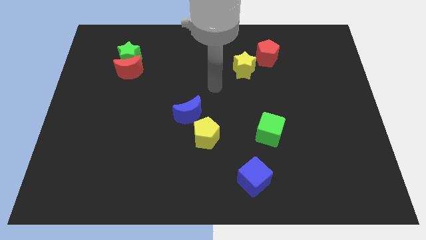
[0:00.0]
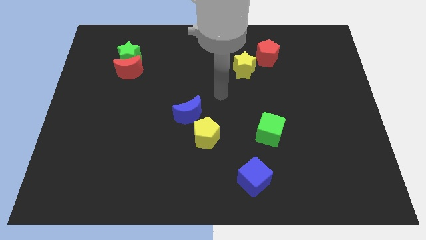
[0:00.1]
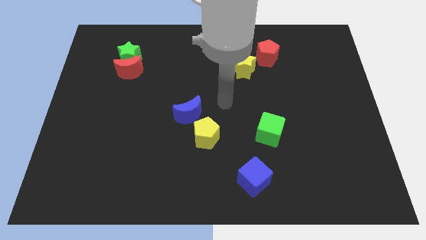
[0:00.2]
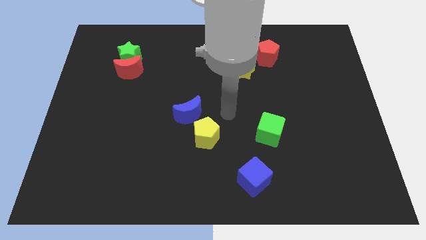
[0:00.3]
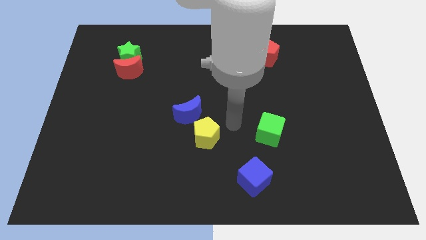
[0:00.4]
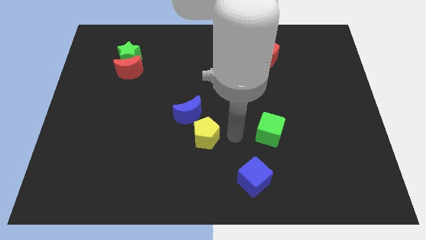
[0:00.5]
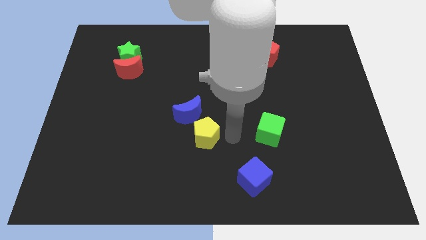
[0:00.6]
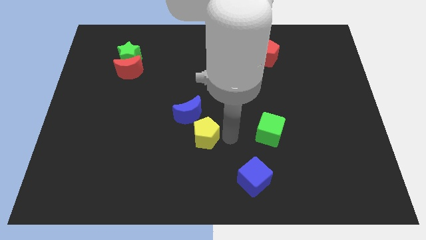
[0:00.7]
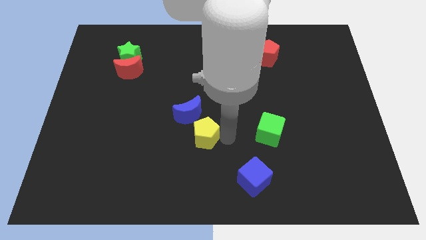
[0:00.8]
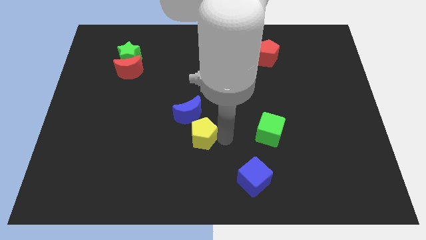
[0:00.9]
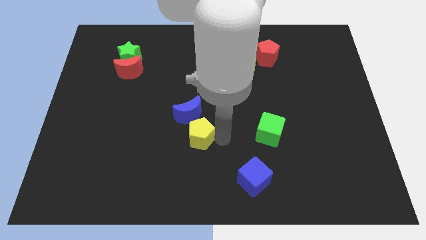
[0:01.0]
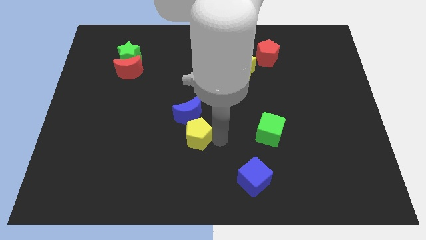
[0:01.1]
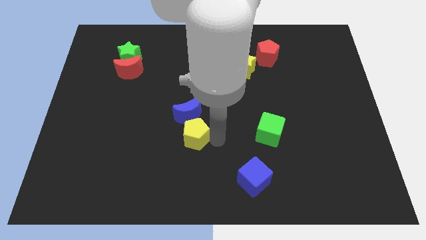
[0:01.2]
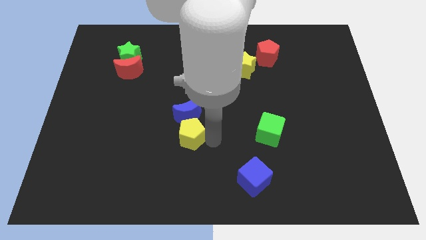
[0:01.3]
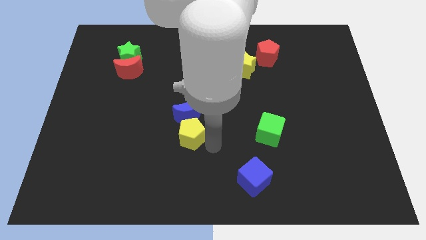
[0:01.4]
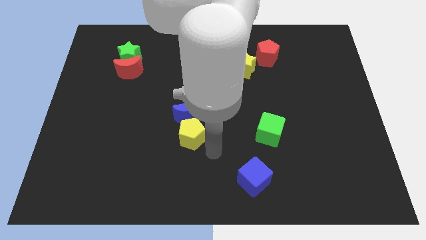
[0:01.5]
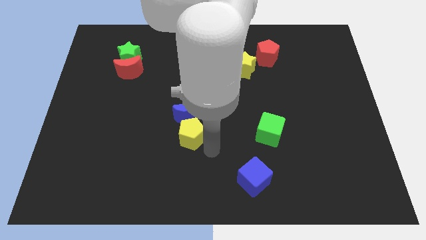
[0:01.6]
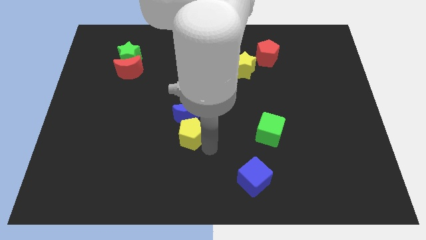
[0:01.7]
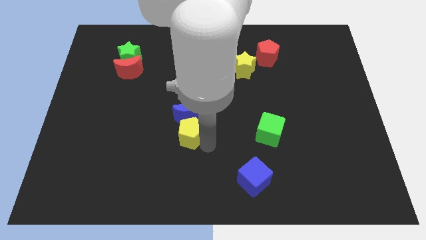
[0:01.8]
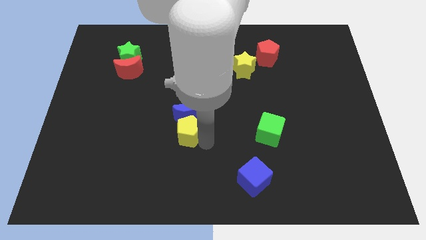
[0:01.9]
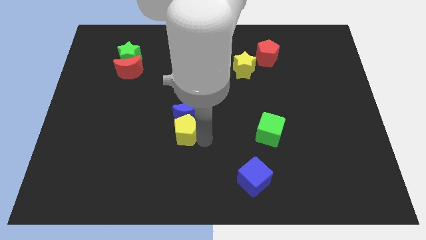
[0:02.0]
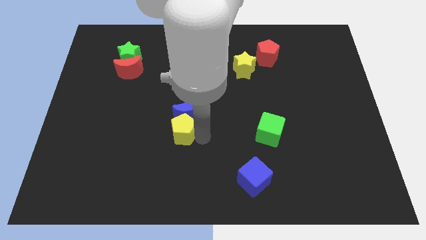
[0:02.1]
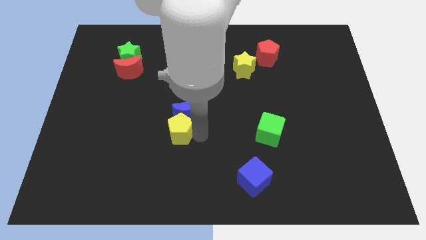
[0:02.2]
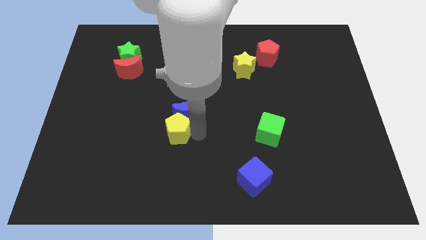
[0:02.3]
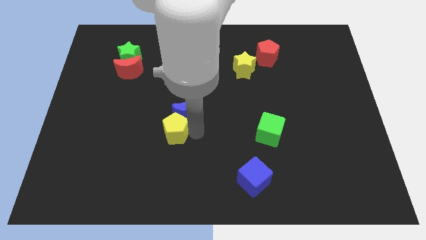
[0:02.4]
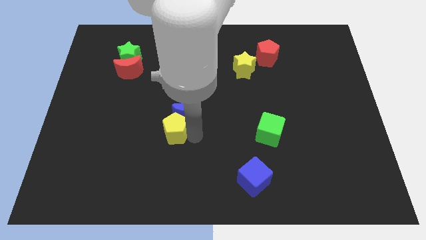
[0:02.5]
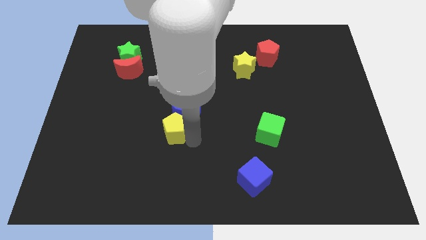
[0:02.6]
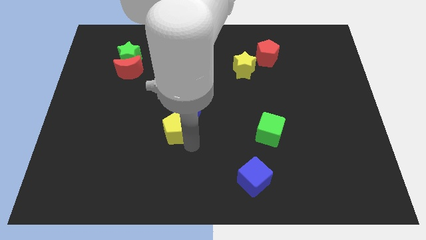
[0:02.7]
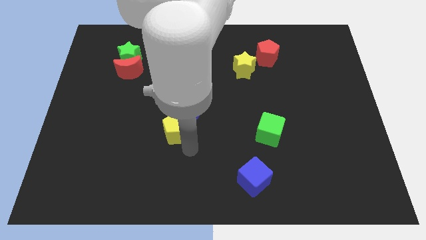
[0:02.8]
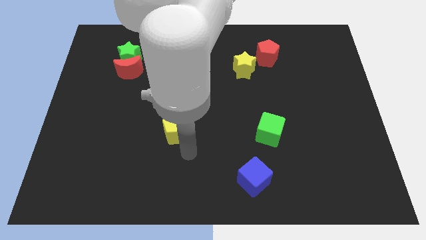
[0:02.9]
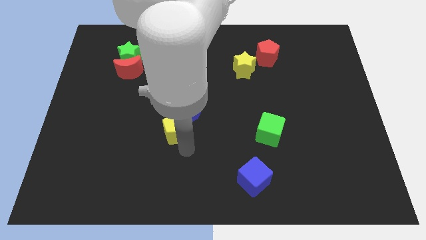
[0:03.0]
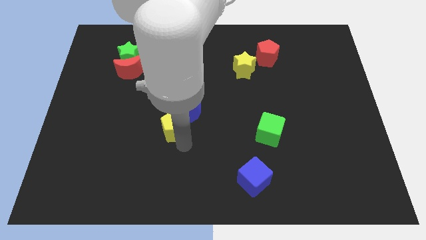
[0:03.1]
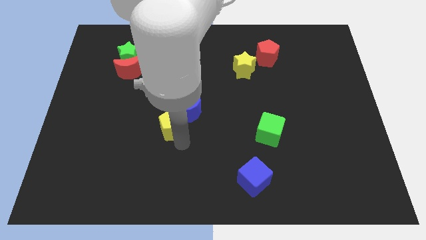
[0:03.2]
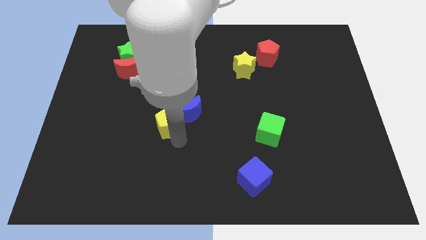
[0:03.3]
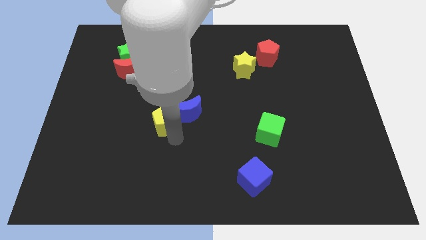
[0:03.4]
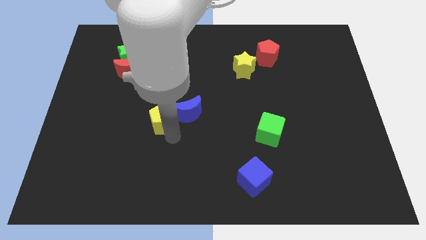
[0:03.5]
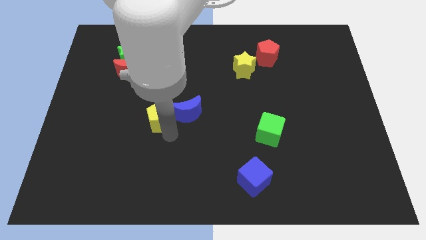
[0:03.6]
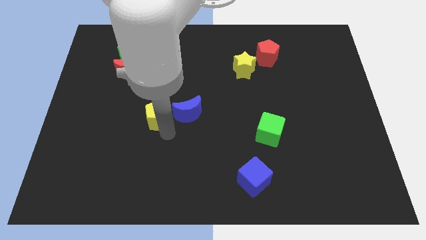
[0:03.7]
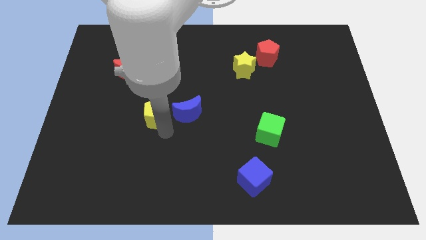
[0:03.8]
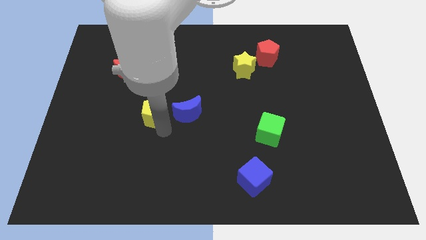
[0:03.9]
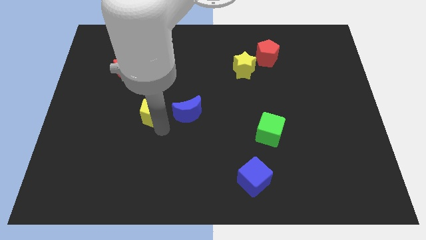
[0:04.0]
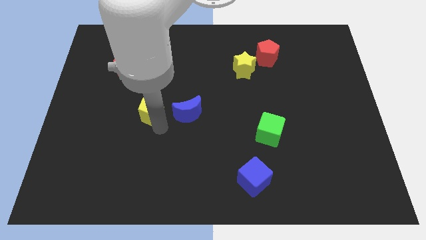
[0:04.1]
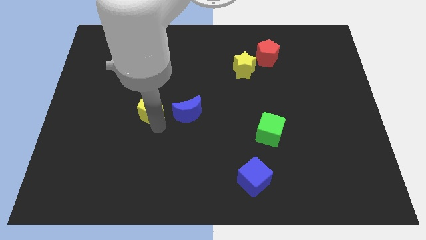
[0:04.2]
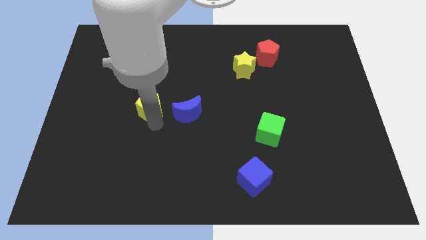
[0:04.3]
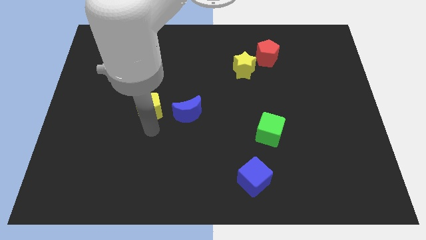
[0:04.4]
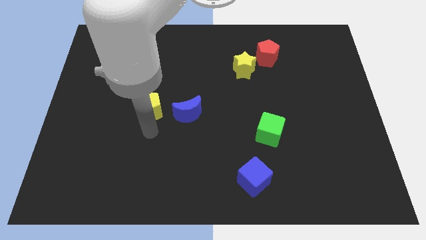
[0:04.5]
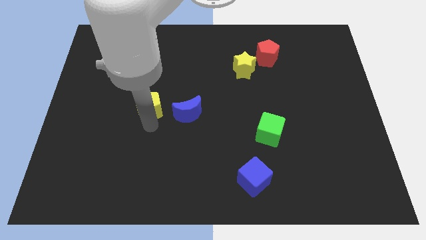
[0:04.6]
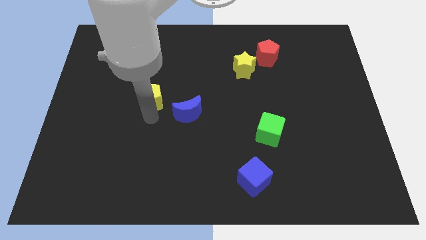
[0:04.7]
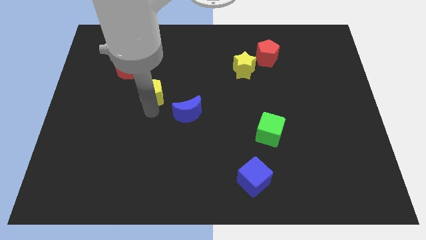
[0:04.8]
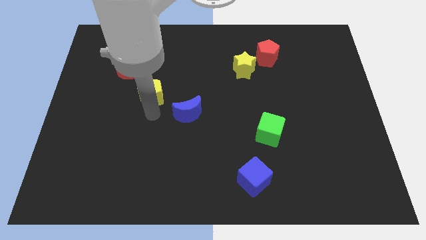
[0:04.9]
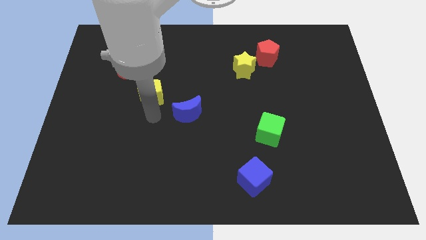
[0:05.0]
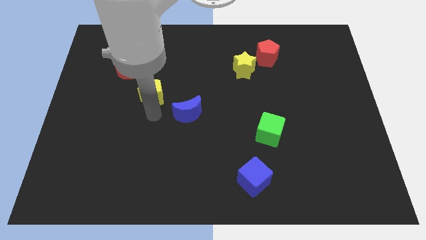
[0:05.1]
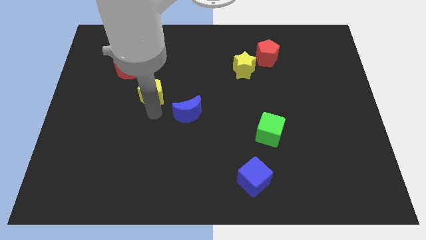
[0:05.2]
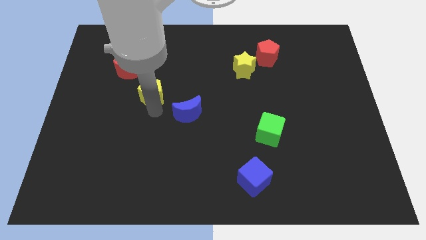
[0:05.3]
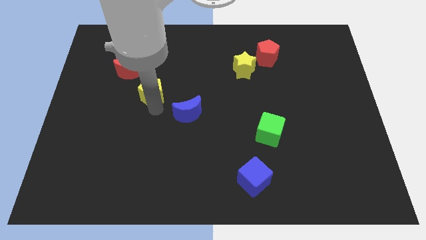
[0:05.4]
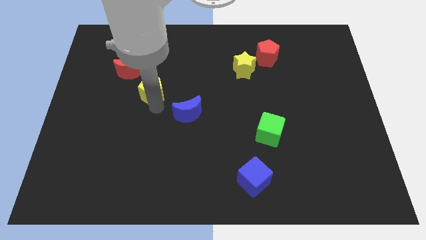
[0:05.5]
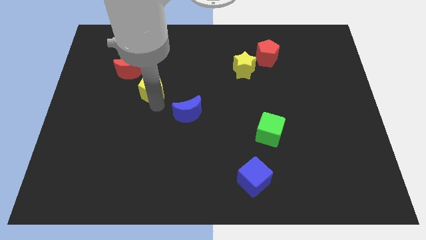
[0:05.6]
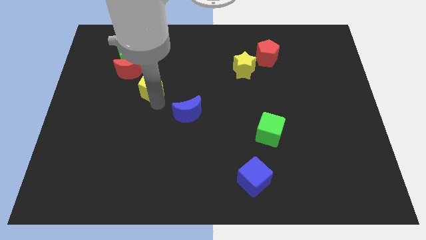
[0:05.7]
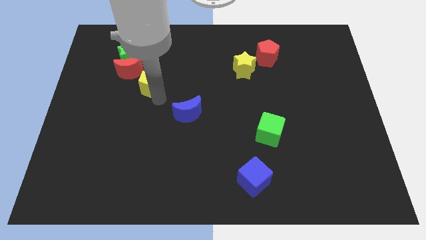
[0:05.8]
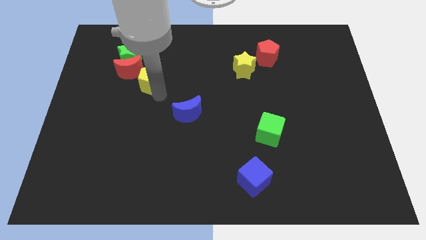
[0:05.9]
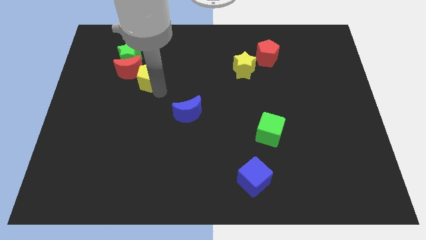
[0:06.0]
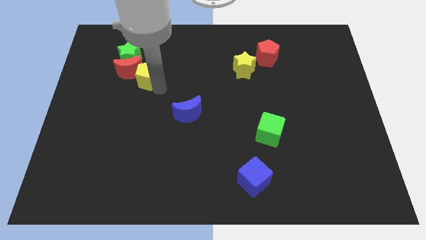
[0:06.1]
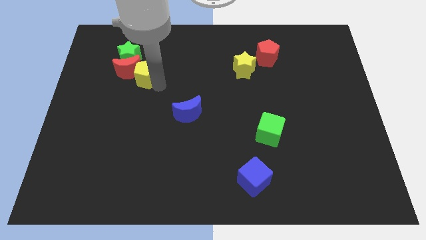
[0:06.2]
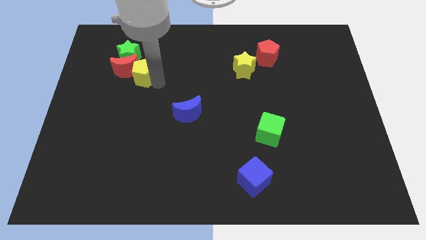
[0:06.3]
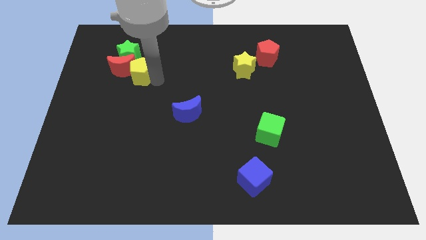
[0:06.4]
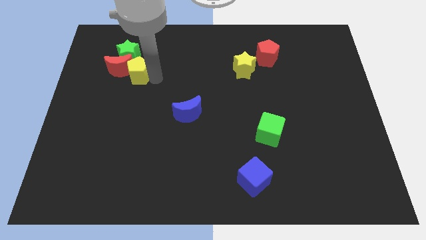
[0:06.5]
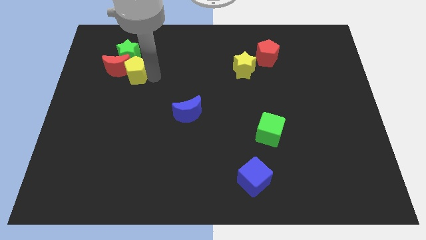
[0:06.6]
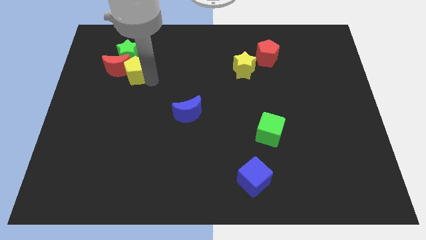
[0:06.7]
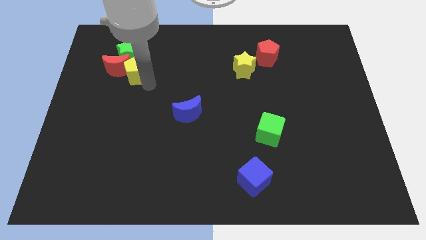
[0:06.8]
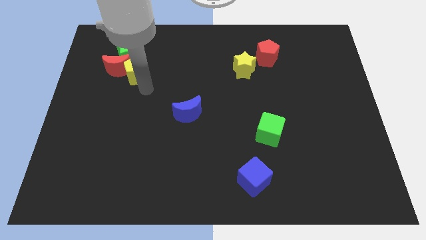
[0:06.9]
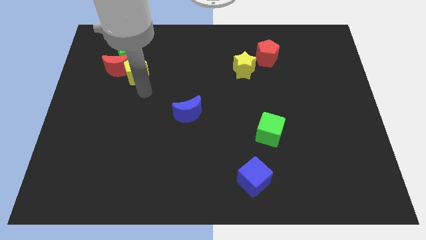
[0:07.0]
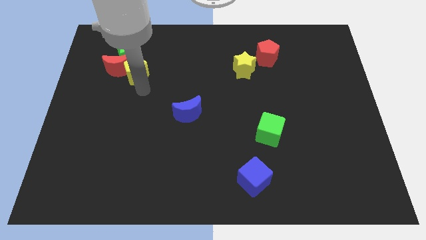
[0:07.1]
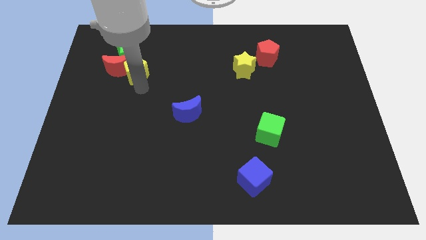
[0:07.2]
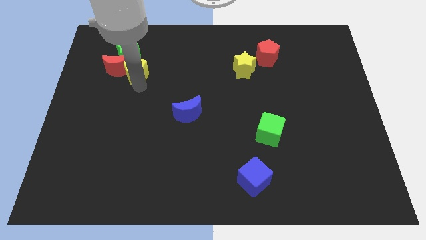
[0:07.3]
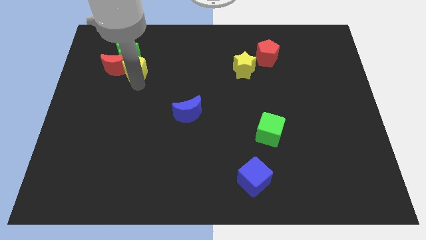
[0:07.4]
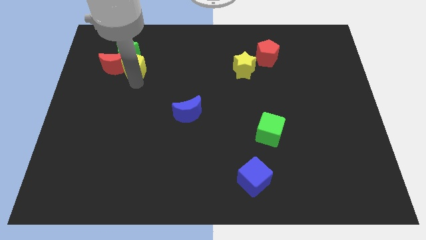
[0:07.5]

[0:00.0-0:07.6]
push the yellow pentagon close to the green star
